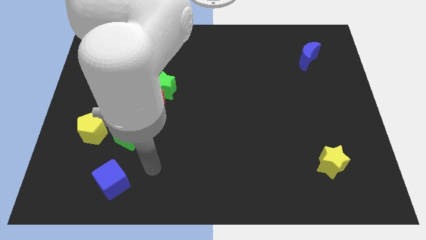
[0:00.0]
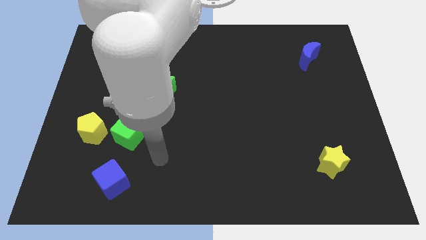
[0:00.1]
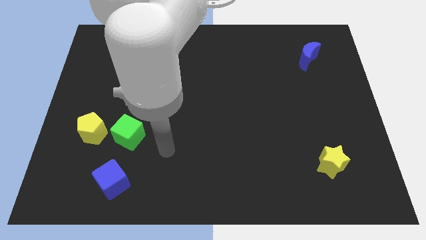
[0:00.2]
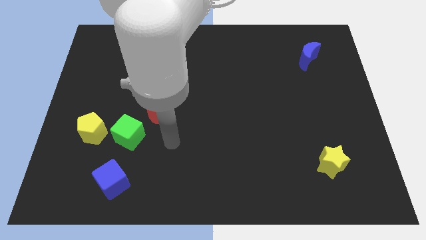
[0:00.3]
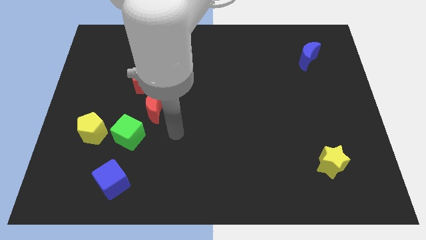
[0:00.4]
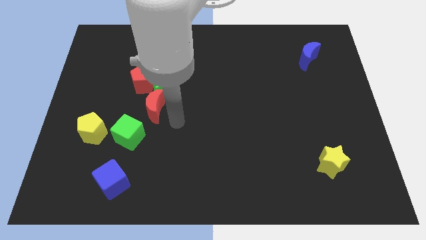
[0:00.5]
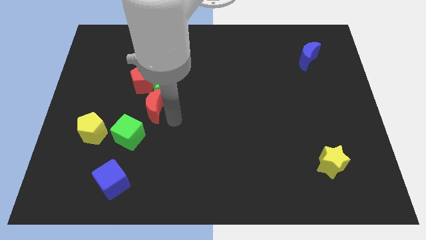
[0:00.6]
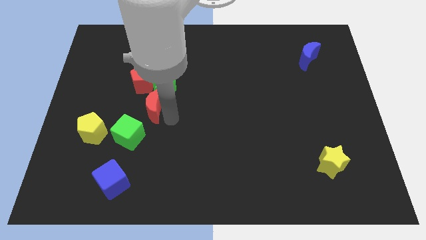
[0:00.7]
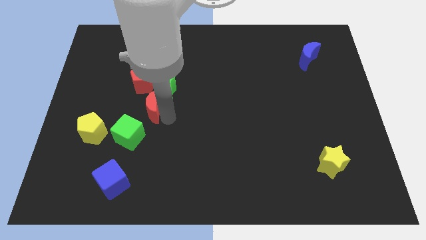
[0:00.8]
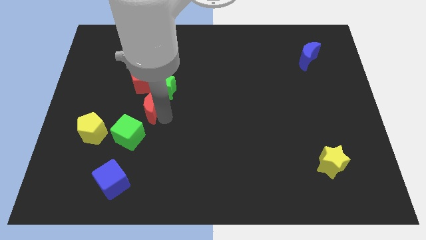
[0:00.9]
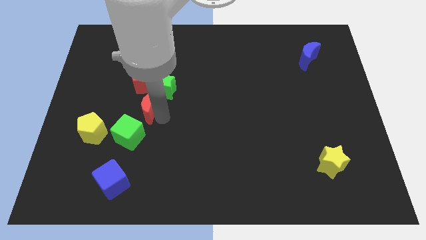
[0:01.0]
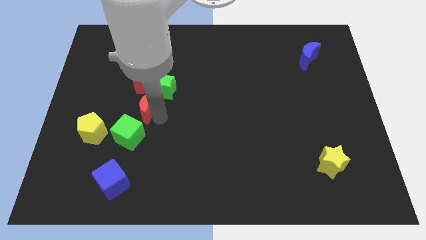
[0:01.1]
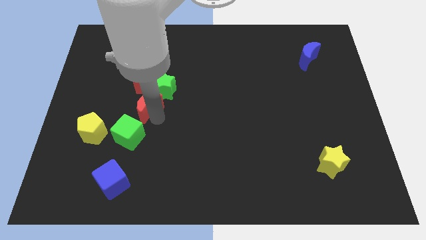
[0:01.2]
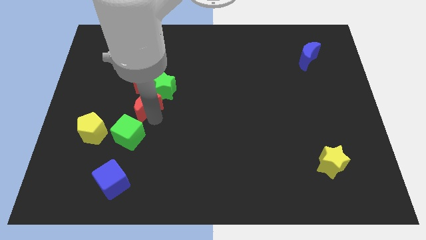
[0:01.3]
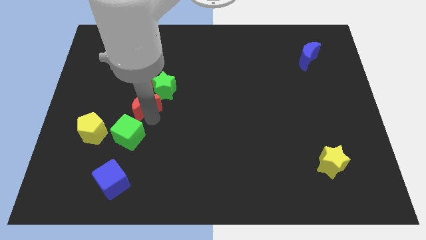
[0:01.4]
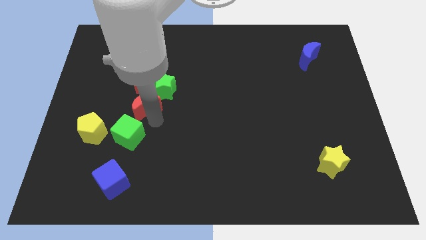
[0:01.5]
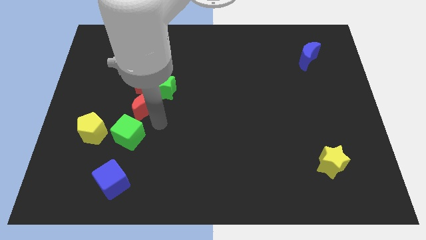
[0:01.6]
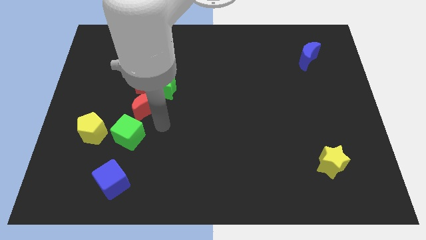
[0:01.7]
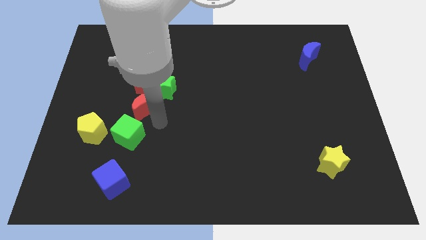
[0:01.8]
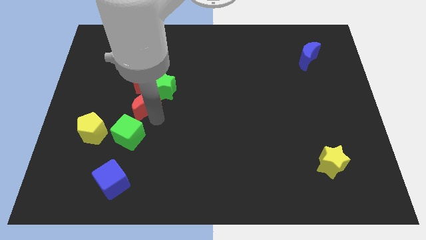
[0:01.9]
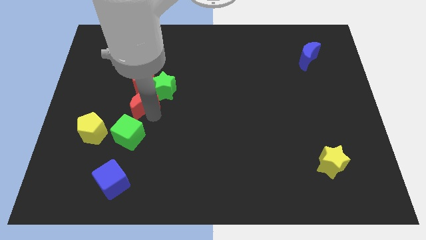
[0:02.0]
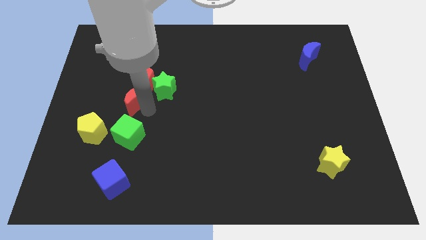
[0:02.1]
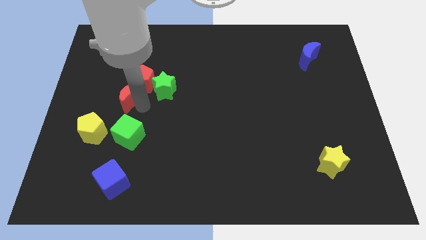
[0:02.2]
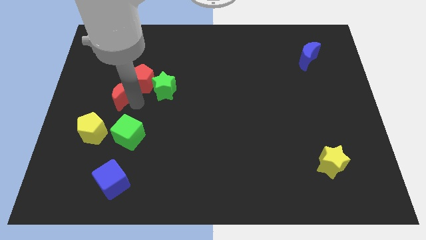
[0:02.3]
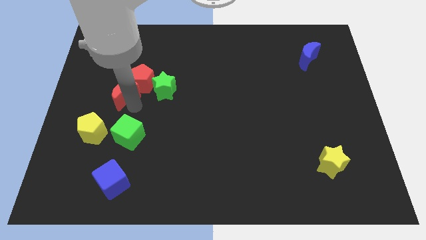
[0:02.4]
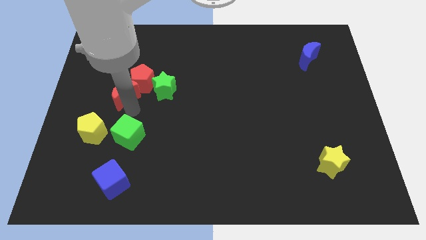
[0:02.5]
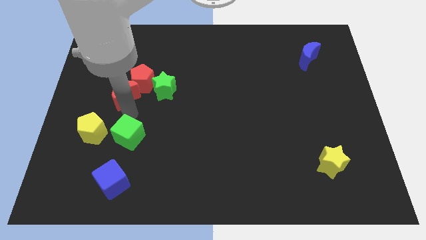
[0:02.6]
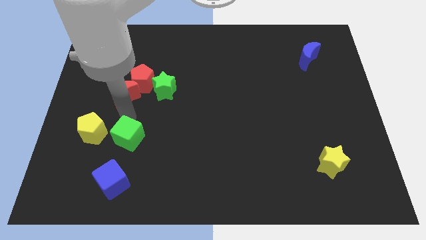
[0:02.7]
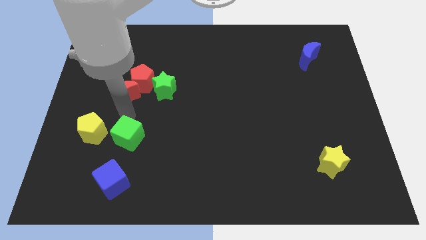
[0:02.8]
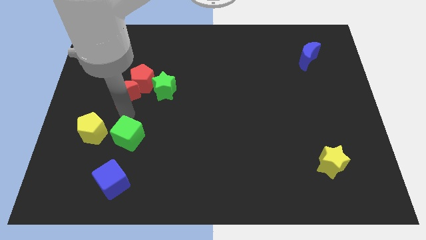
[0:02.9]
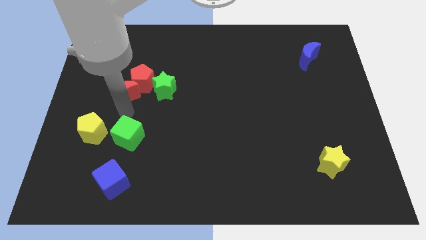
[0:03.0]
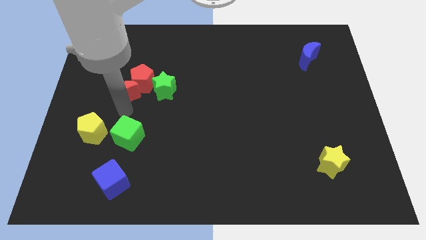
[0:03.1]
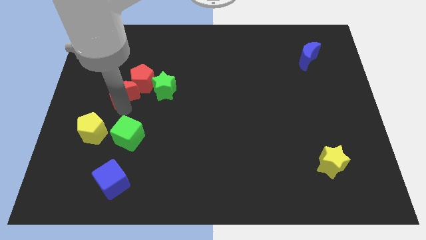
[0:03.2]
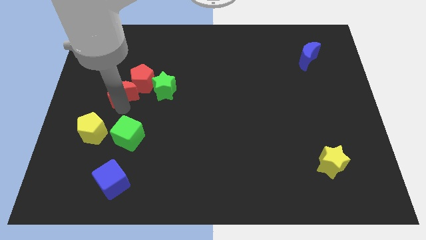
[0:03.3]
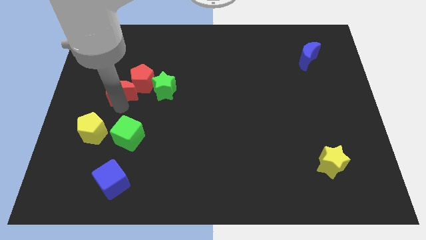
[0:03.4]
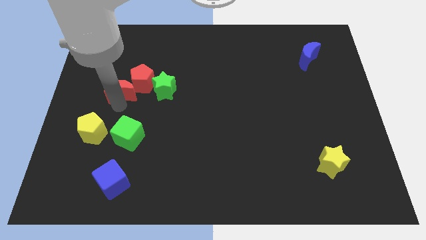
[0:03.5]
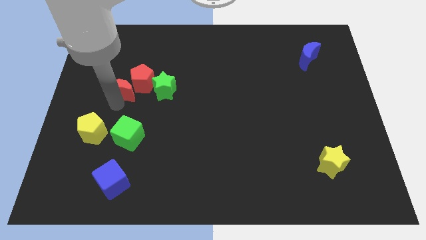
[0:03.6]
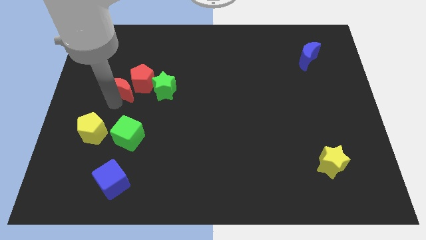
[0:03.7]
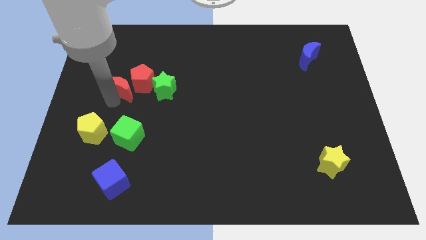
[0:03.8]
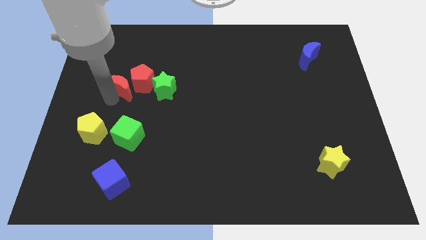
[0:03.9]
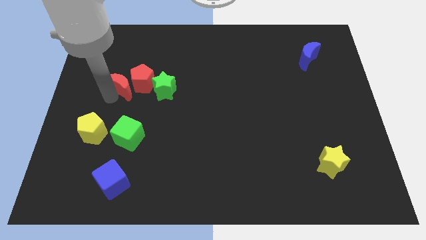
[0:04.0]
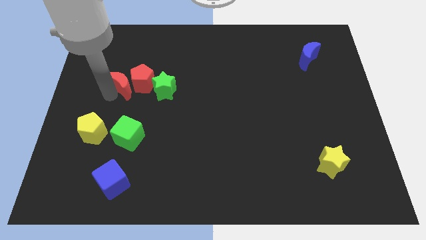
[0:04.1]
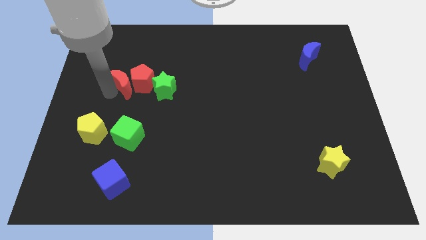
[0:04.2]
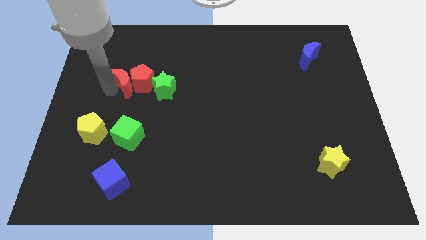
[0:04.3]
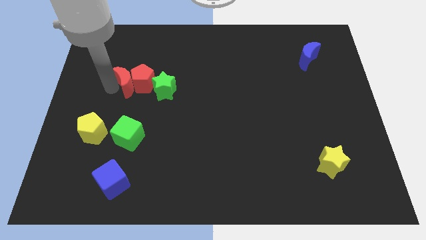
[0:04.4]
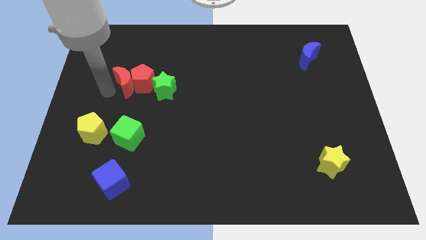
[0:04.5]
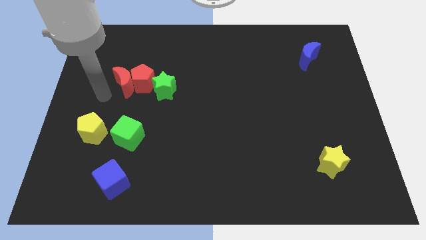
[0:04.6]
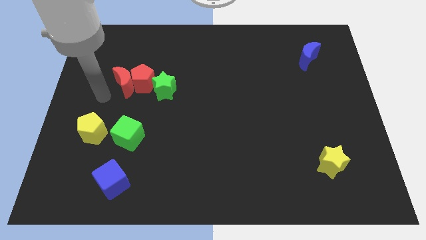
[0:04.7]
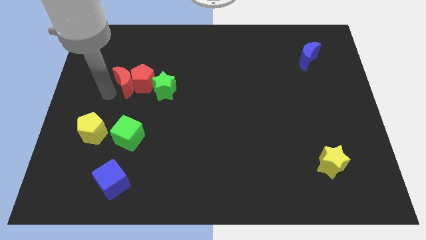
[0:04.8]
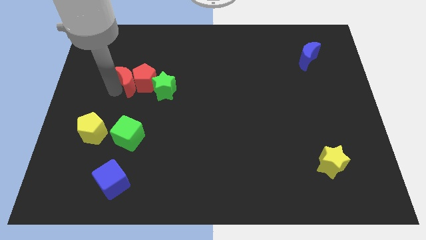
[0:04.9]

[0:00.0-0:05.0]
put the red moon to the top left side of the green star

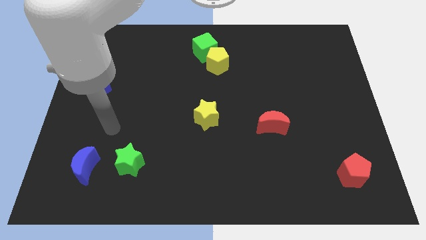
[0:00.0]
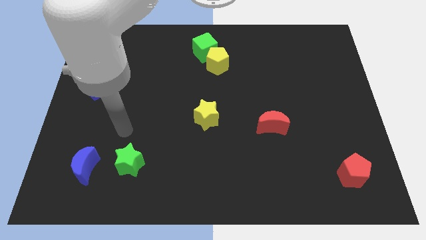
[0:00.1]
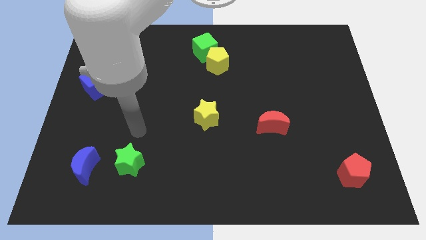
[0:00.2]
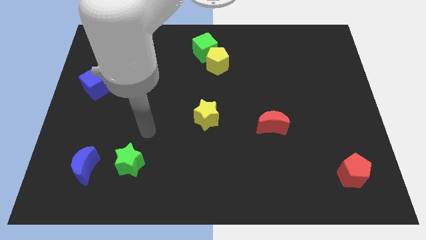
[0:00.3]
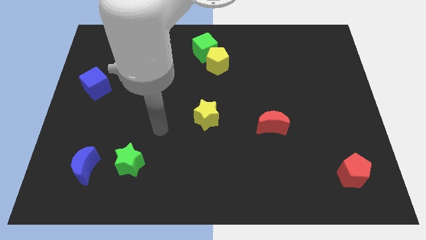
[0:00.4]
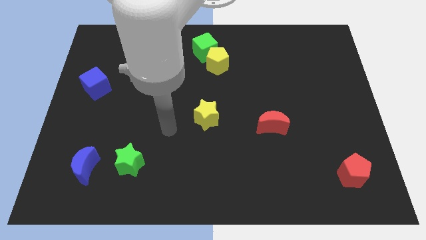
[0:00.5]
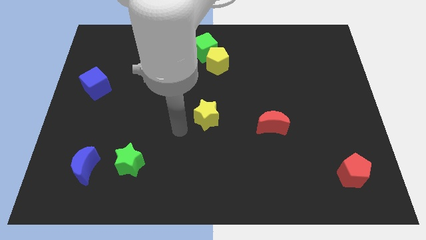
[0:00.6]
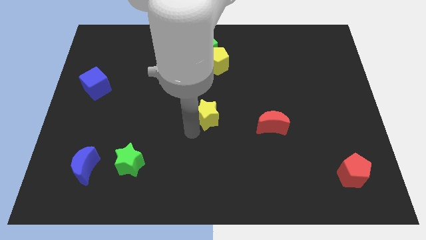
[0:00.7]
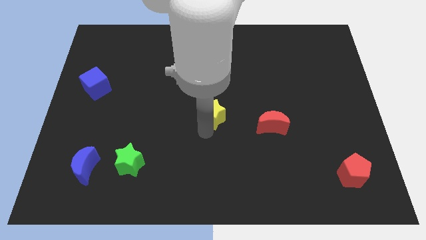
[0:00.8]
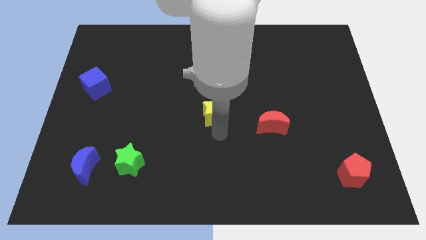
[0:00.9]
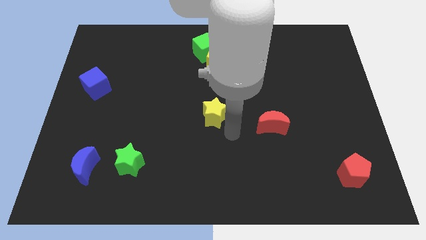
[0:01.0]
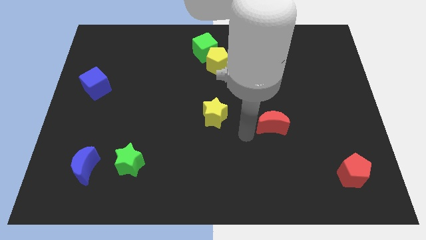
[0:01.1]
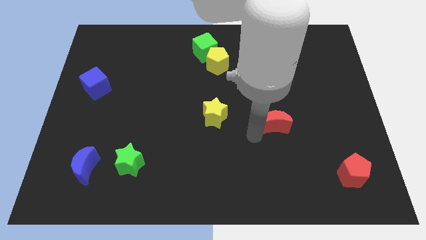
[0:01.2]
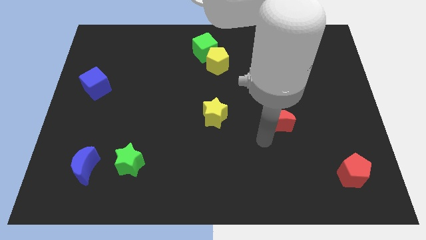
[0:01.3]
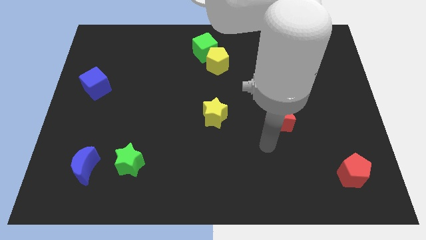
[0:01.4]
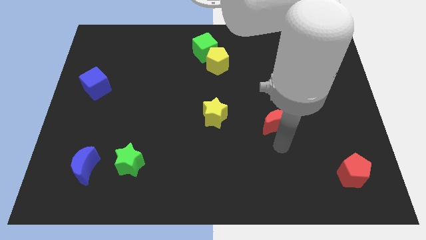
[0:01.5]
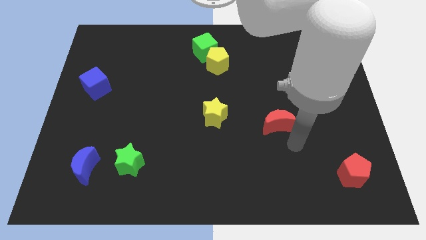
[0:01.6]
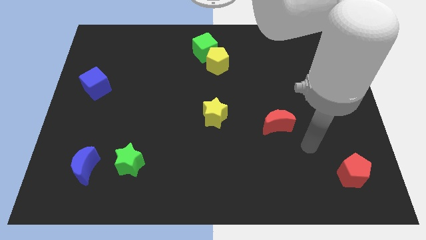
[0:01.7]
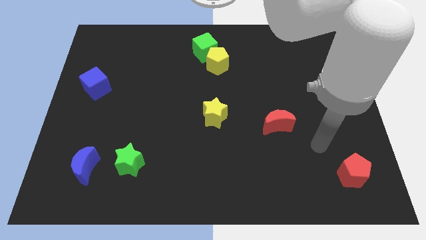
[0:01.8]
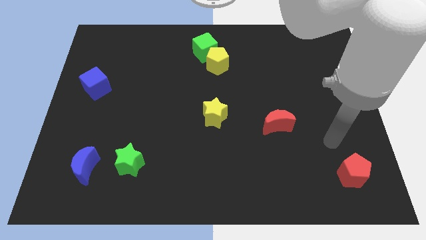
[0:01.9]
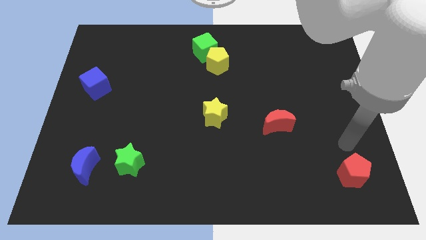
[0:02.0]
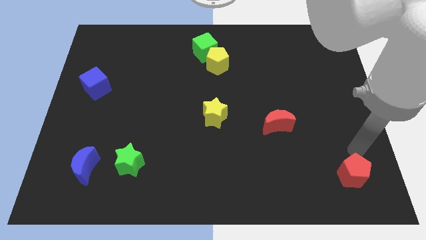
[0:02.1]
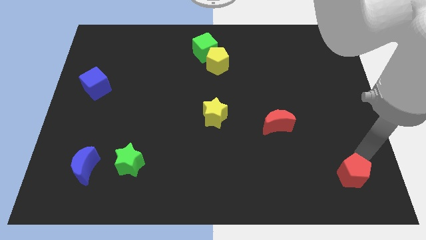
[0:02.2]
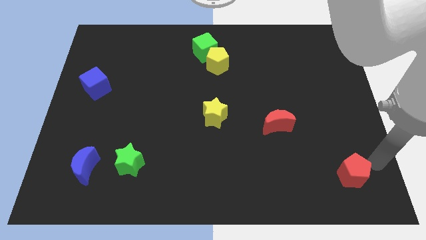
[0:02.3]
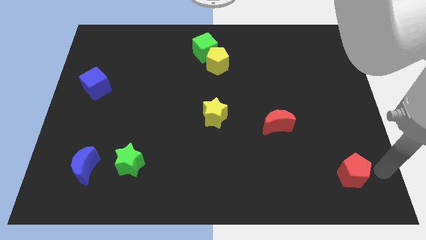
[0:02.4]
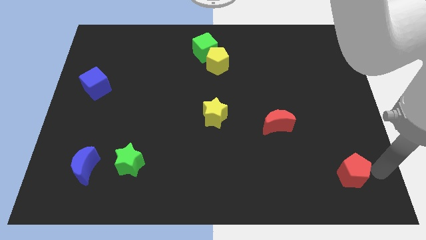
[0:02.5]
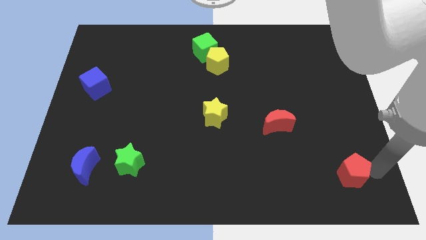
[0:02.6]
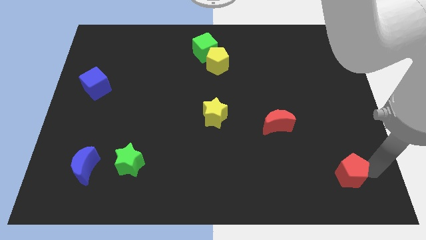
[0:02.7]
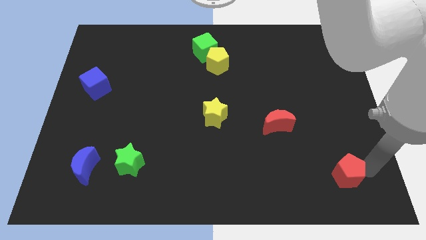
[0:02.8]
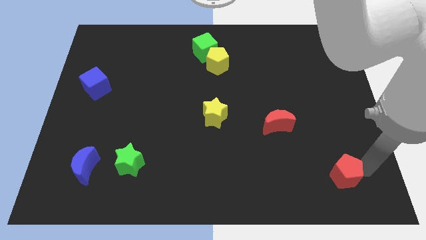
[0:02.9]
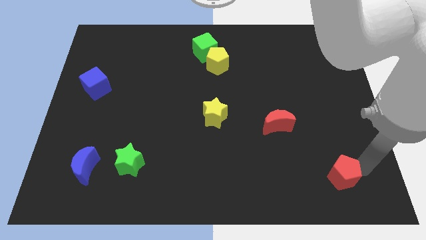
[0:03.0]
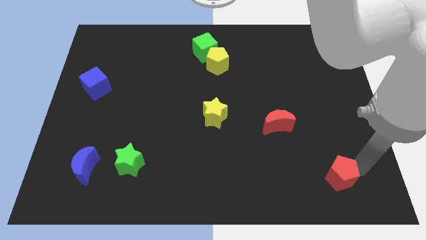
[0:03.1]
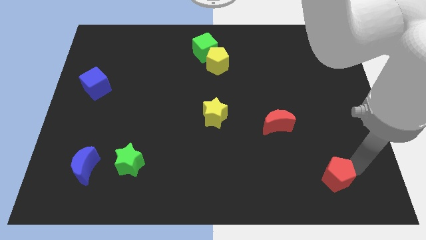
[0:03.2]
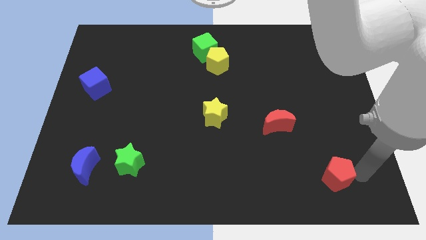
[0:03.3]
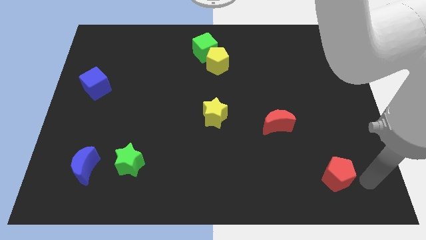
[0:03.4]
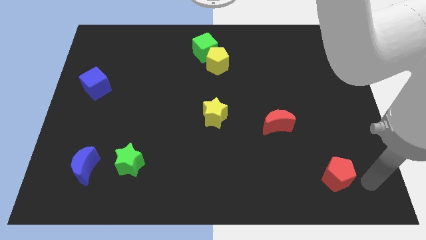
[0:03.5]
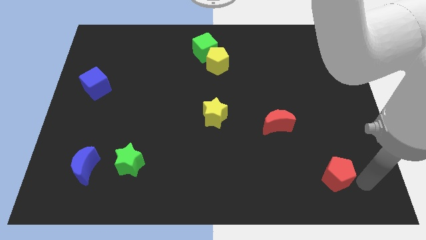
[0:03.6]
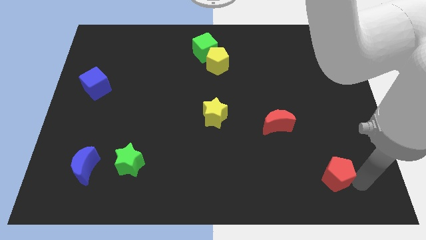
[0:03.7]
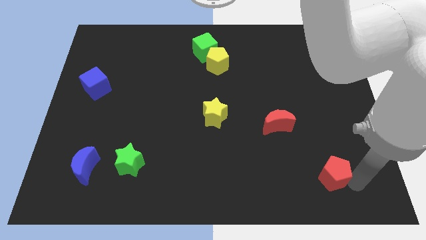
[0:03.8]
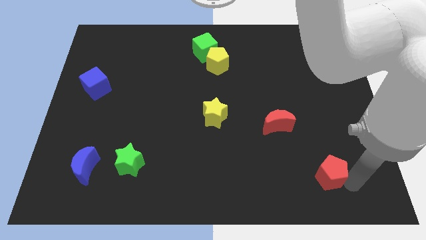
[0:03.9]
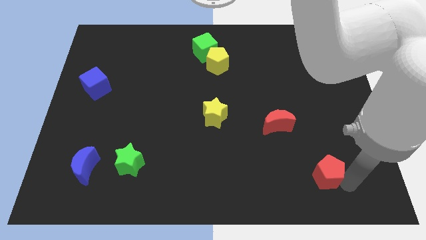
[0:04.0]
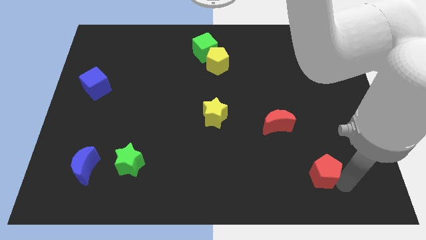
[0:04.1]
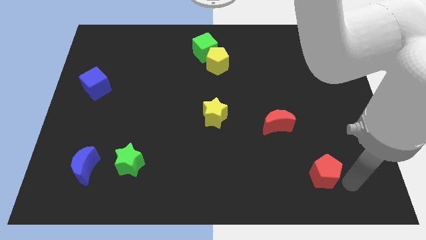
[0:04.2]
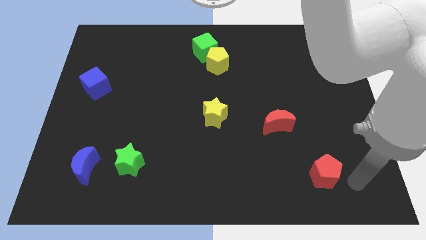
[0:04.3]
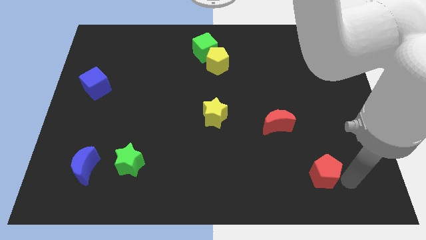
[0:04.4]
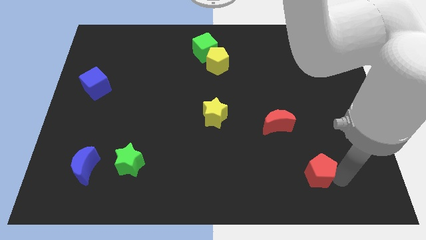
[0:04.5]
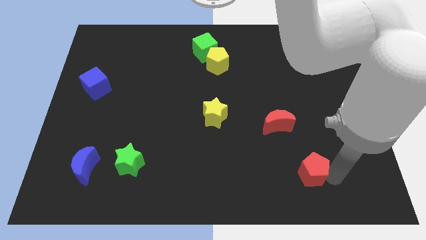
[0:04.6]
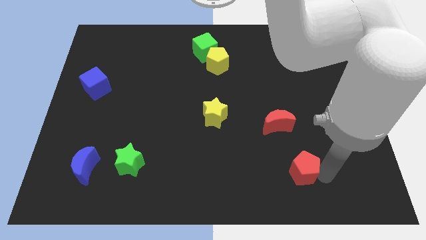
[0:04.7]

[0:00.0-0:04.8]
slide the red pentagon below the red moon
